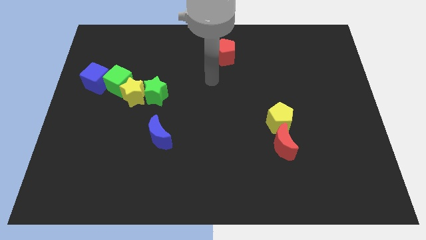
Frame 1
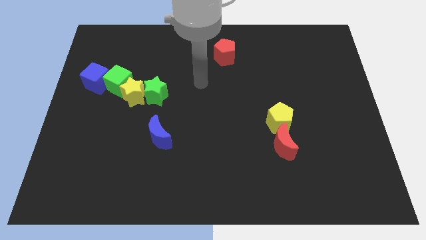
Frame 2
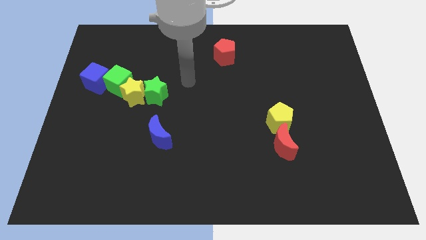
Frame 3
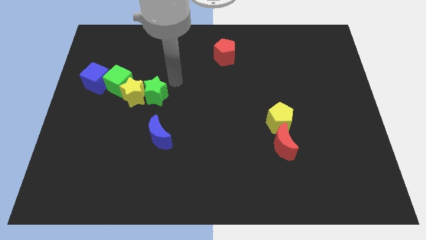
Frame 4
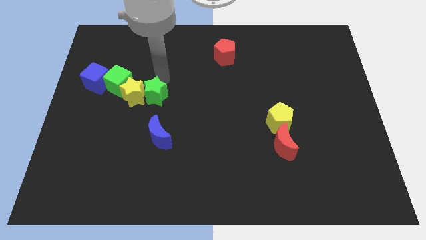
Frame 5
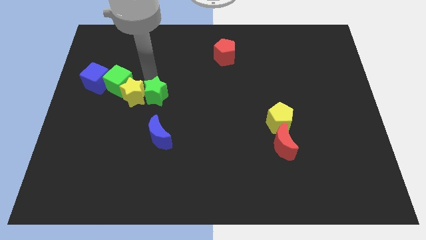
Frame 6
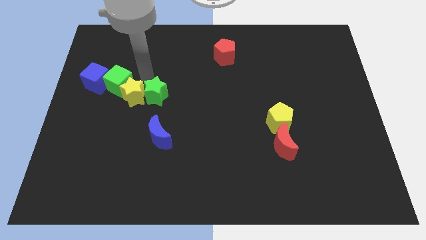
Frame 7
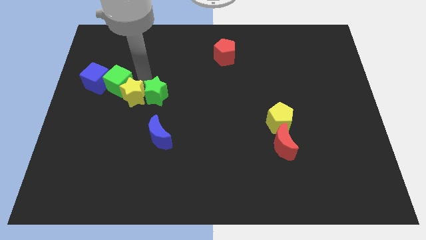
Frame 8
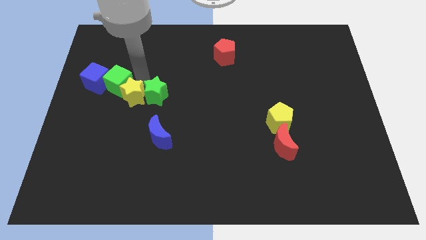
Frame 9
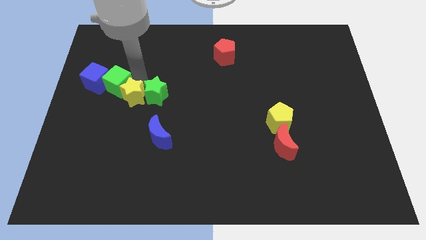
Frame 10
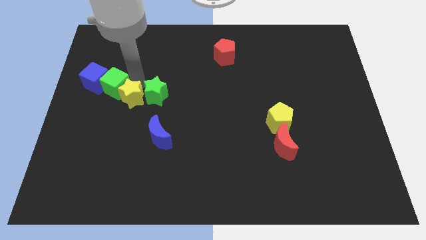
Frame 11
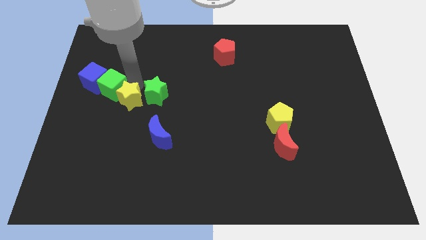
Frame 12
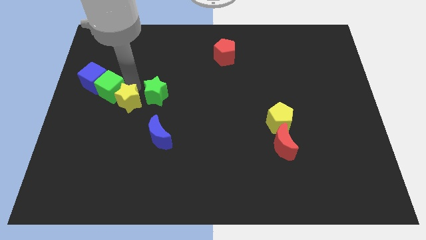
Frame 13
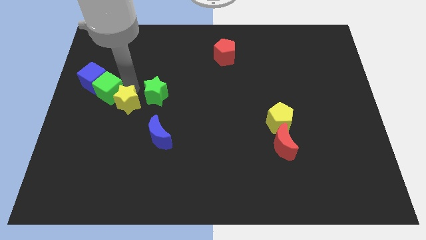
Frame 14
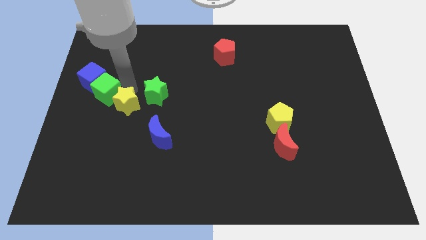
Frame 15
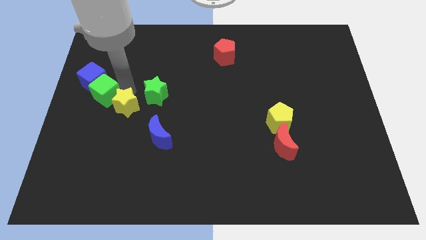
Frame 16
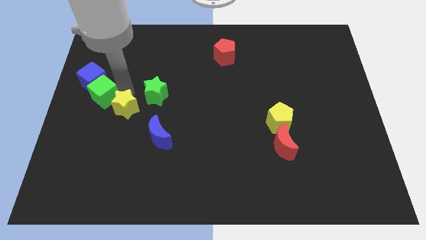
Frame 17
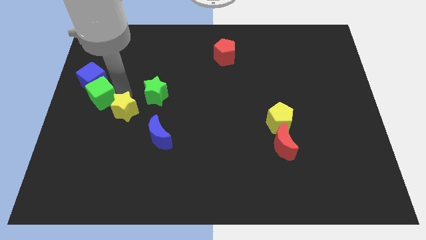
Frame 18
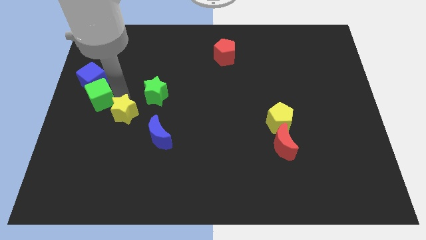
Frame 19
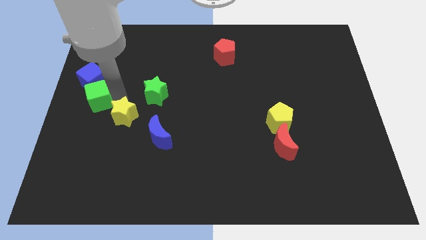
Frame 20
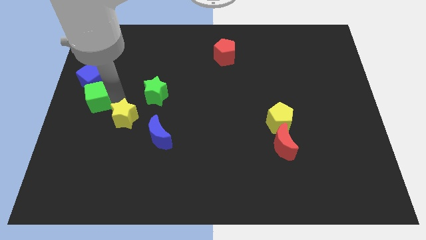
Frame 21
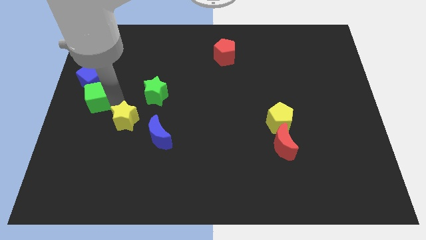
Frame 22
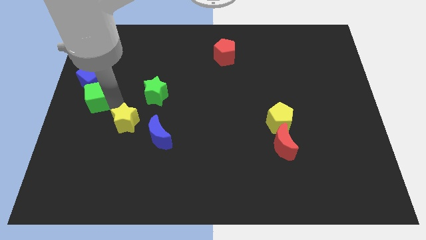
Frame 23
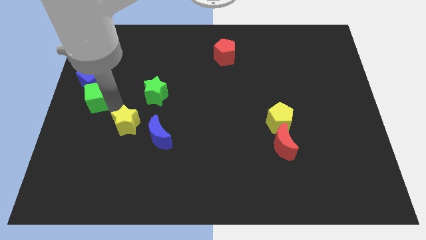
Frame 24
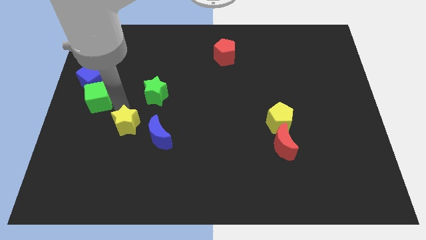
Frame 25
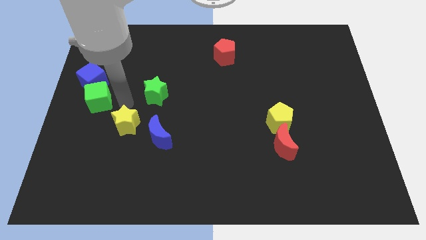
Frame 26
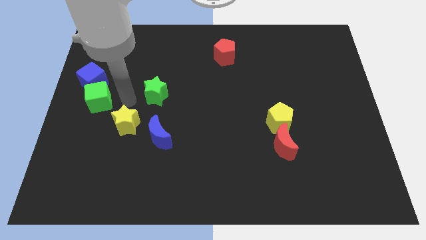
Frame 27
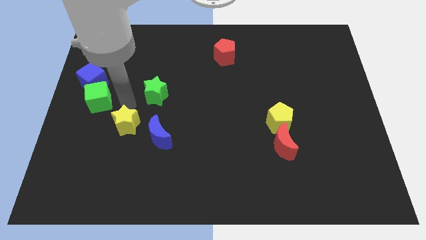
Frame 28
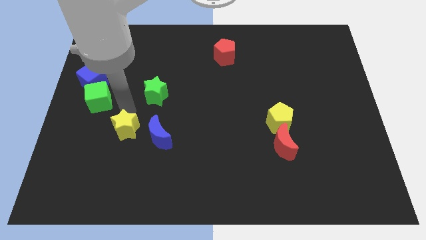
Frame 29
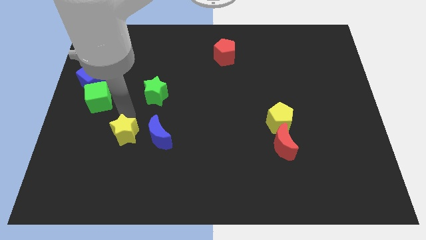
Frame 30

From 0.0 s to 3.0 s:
pull the yellow star apart from the green star and green cube

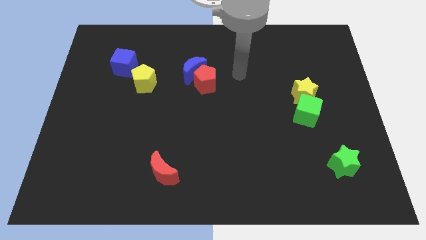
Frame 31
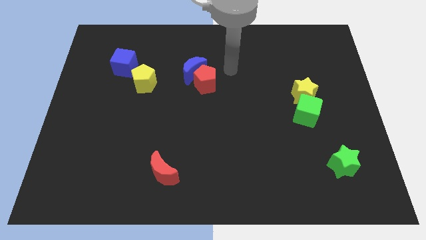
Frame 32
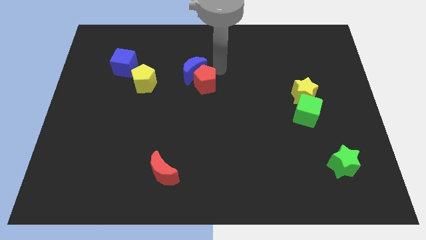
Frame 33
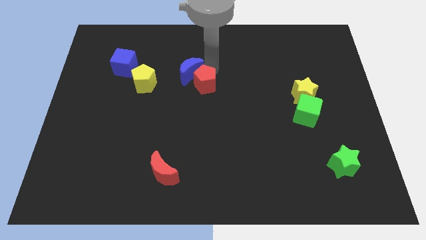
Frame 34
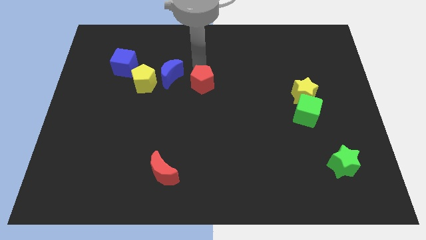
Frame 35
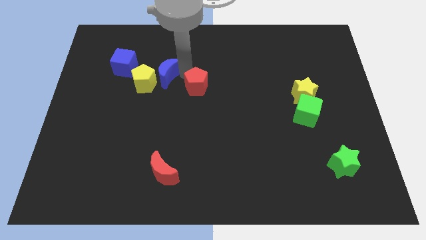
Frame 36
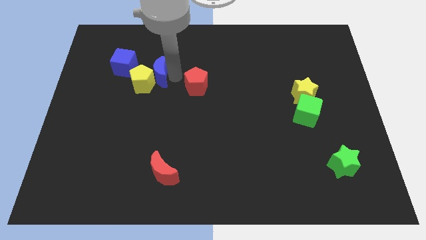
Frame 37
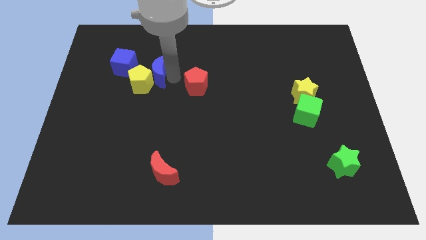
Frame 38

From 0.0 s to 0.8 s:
move the red pentagon away from the blue moon

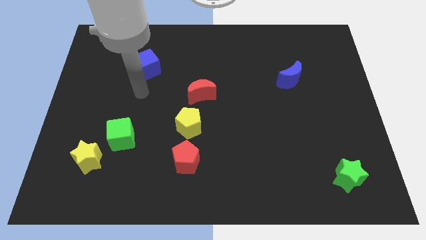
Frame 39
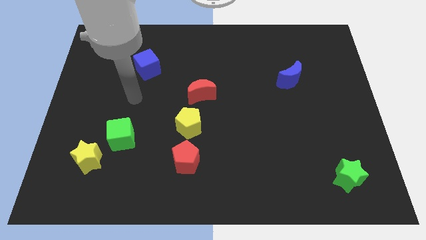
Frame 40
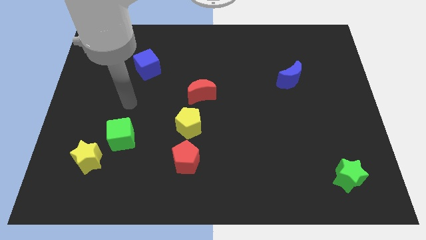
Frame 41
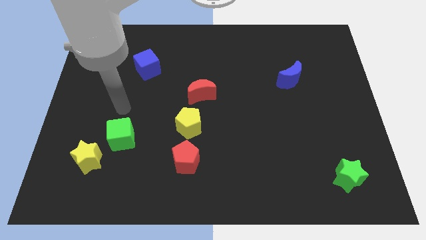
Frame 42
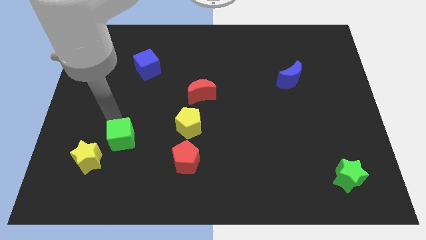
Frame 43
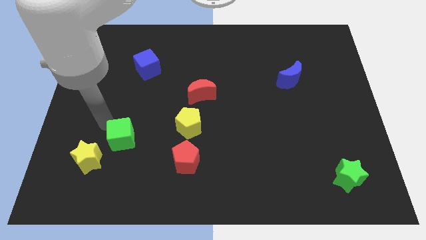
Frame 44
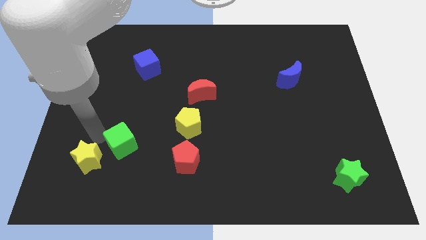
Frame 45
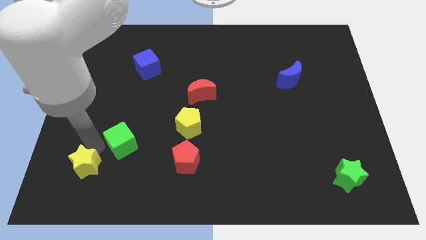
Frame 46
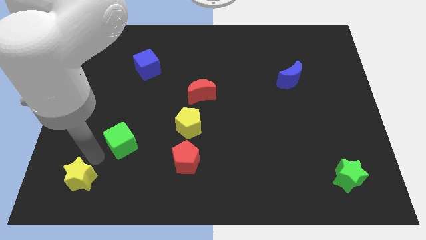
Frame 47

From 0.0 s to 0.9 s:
move the green cube away from the yellow star

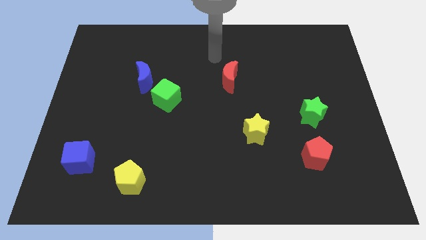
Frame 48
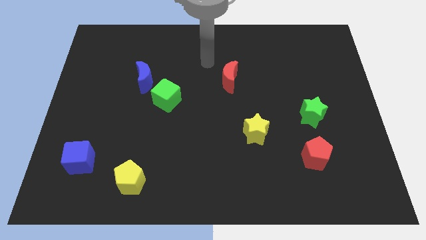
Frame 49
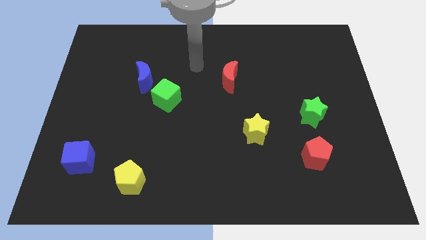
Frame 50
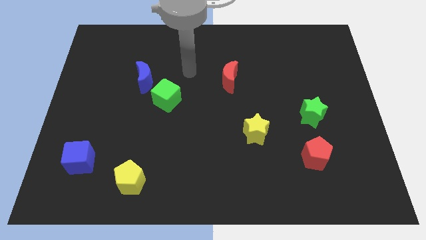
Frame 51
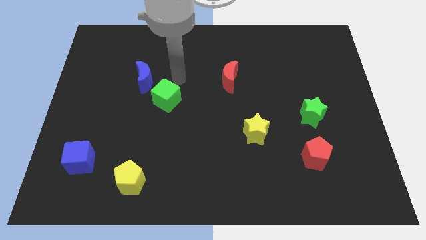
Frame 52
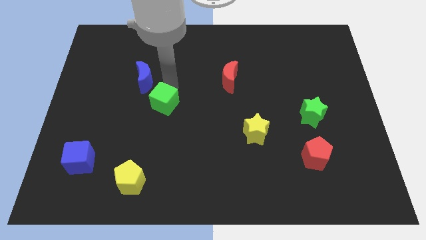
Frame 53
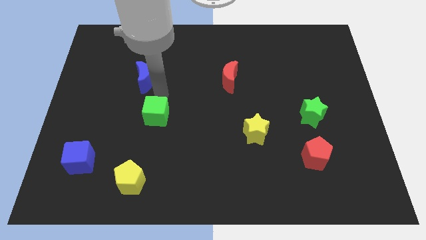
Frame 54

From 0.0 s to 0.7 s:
separate the blue moon from the green cube

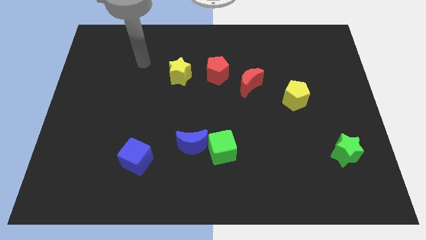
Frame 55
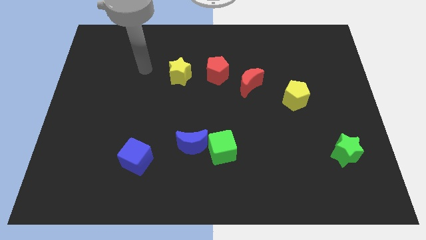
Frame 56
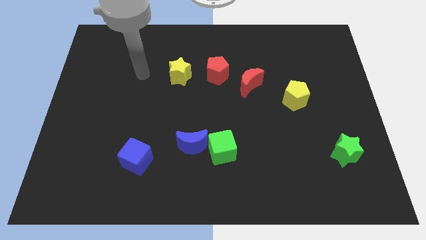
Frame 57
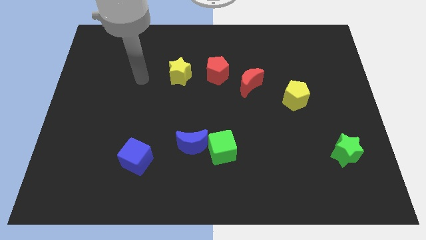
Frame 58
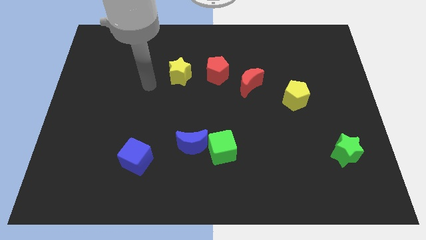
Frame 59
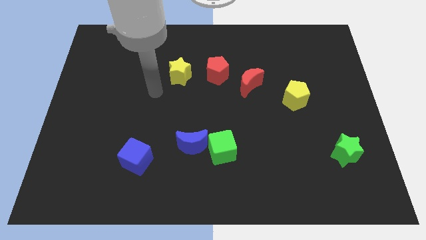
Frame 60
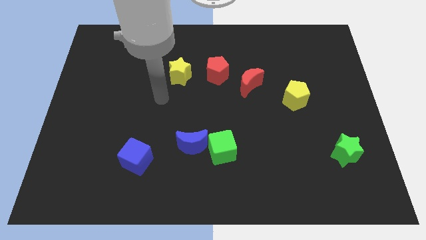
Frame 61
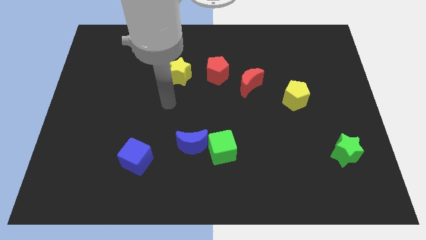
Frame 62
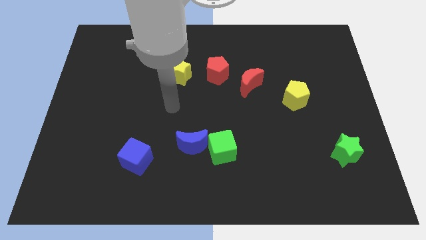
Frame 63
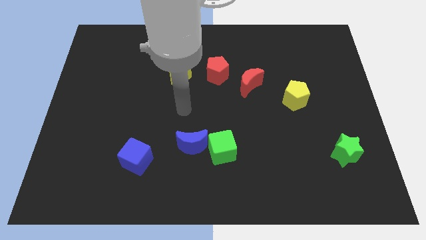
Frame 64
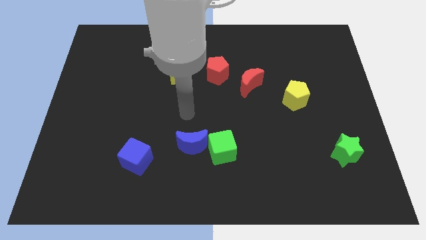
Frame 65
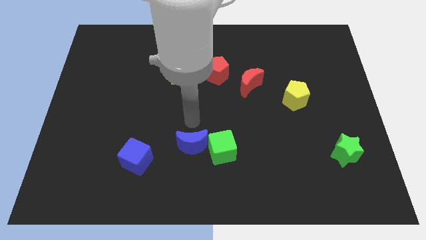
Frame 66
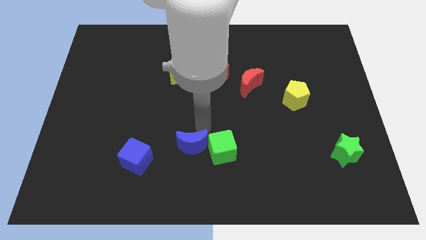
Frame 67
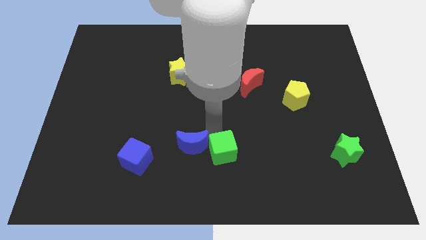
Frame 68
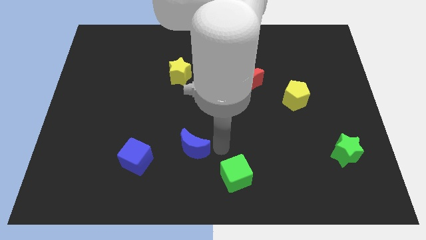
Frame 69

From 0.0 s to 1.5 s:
pull the blue moon apart from the green cube

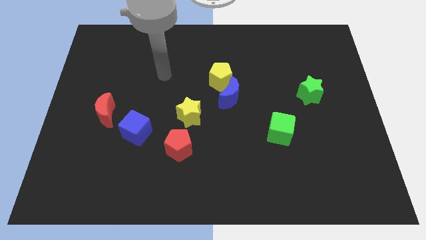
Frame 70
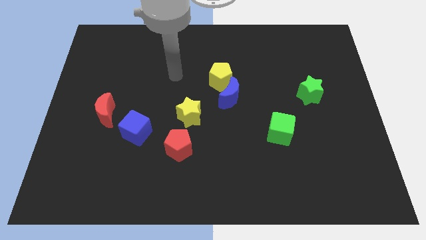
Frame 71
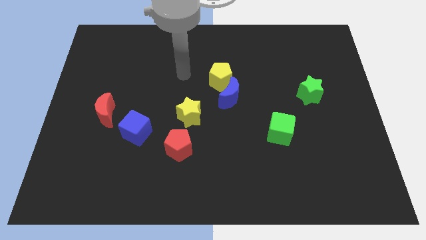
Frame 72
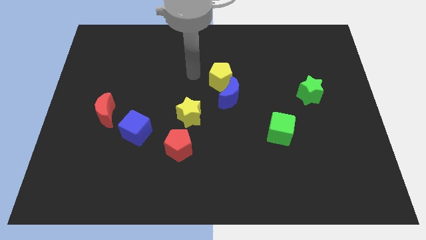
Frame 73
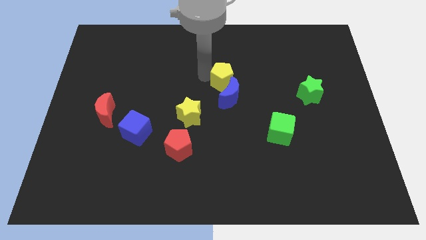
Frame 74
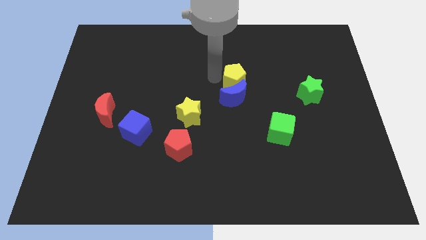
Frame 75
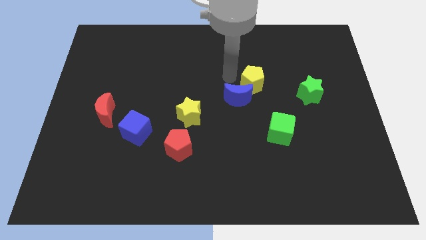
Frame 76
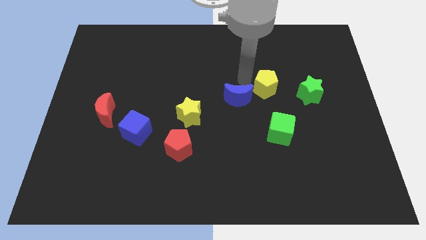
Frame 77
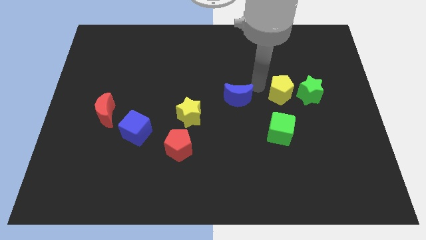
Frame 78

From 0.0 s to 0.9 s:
move the blue moon away from the yellow pentagon

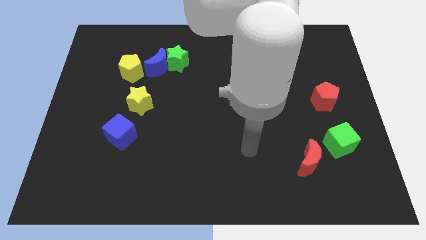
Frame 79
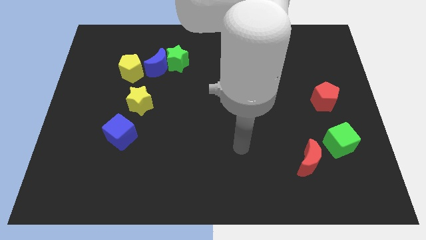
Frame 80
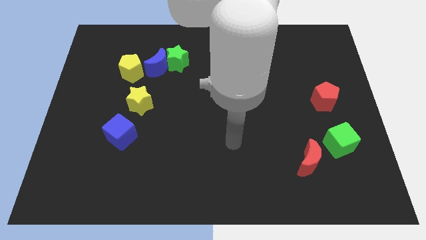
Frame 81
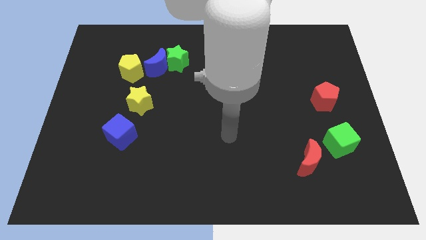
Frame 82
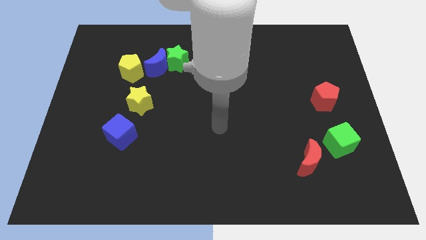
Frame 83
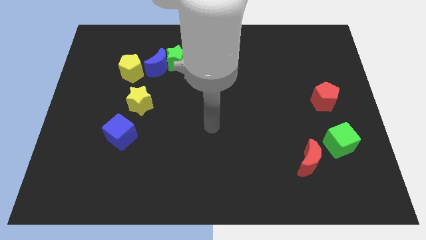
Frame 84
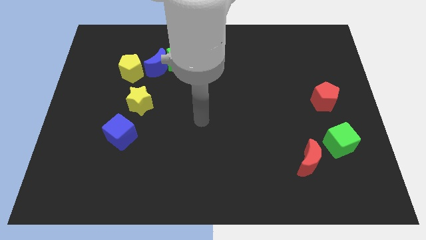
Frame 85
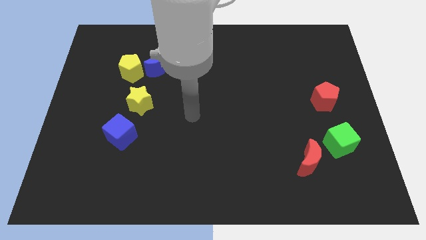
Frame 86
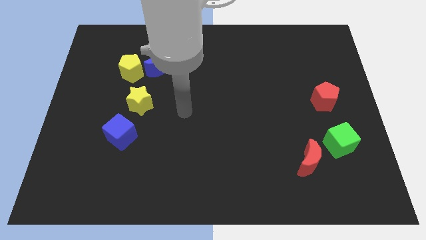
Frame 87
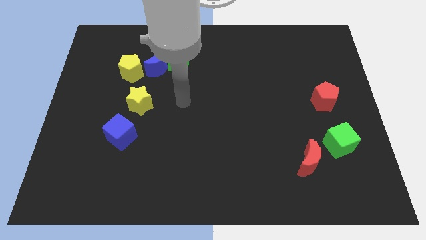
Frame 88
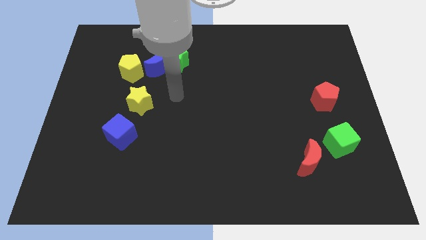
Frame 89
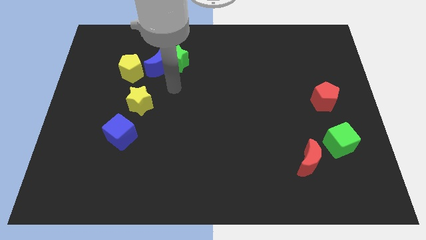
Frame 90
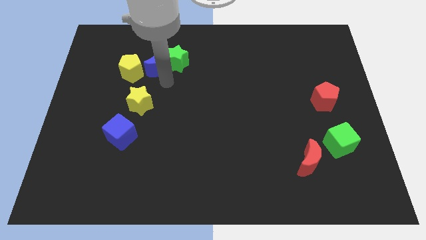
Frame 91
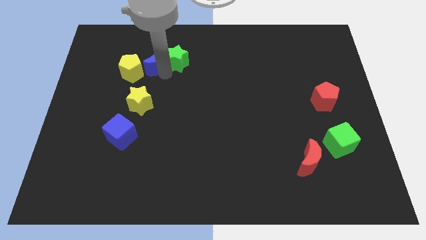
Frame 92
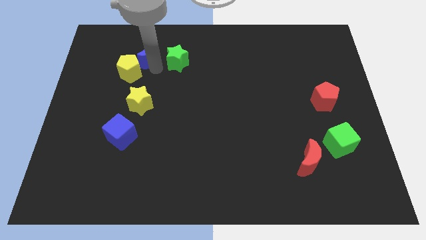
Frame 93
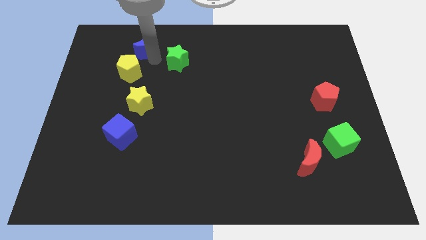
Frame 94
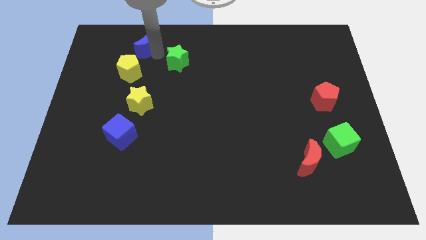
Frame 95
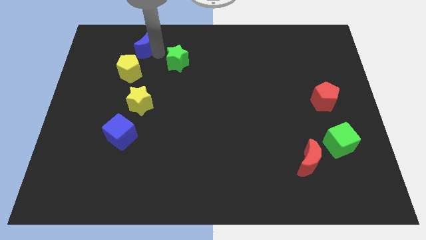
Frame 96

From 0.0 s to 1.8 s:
move the green star away from the blue moon
